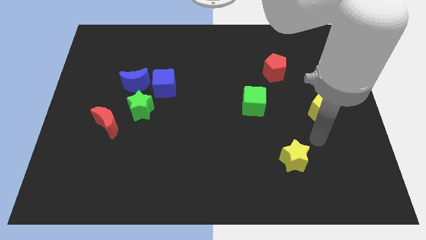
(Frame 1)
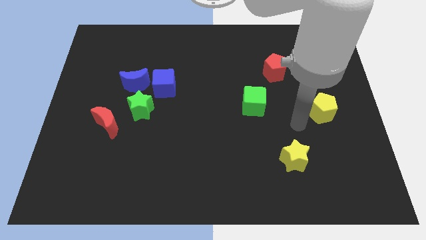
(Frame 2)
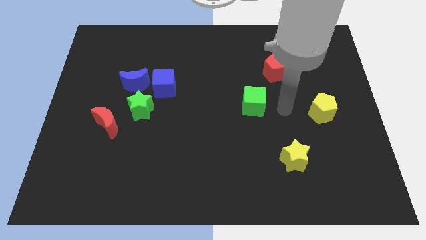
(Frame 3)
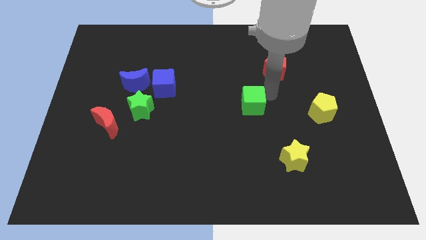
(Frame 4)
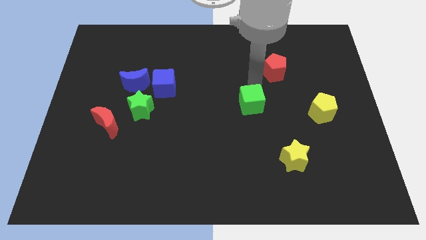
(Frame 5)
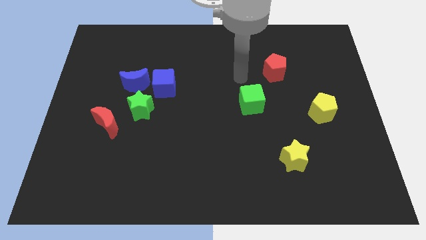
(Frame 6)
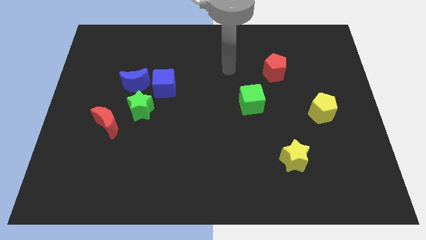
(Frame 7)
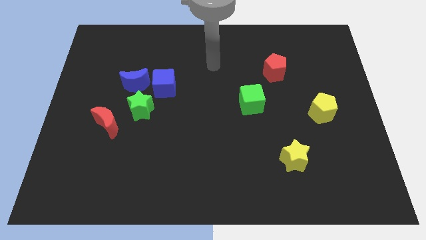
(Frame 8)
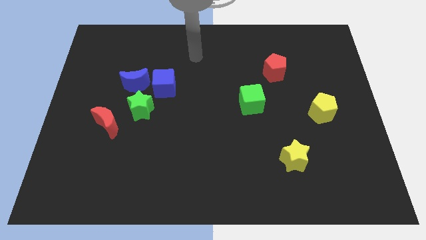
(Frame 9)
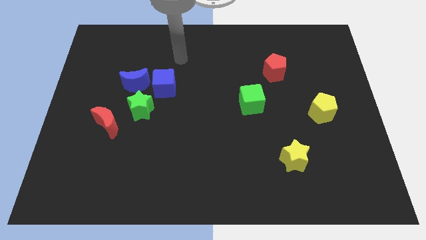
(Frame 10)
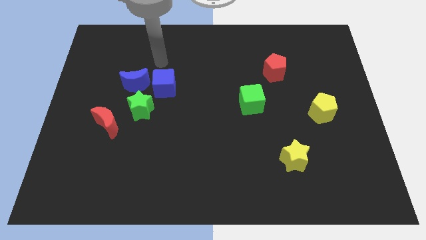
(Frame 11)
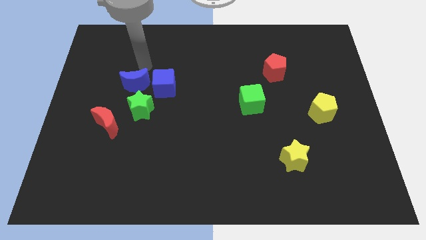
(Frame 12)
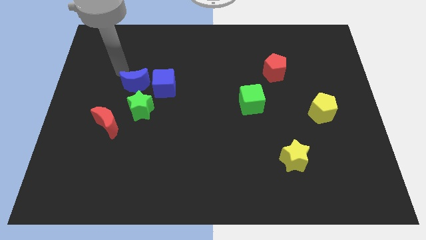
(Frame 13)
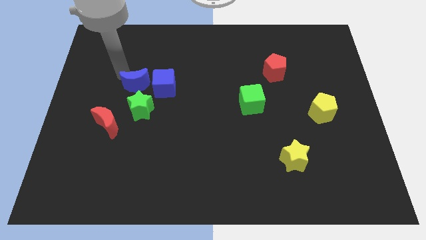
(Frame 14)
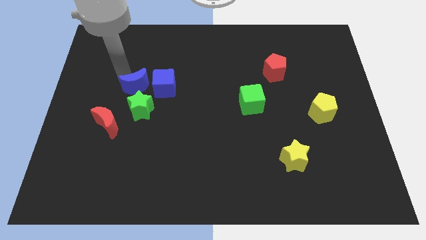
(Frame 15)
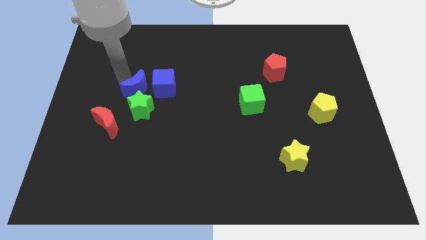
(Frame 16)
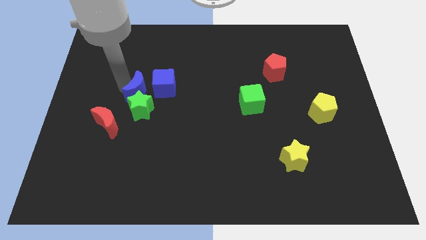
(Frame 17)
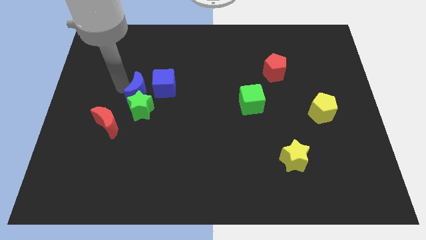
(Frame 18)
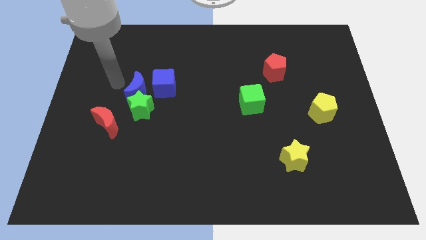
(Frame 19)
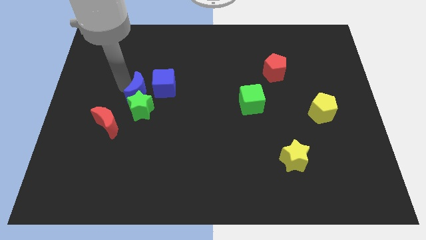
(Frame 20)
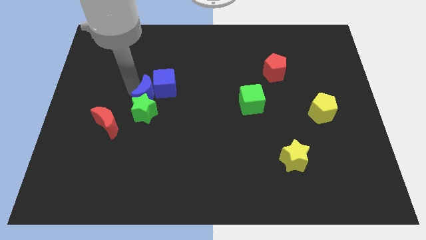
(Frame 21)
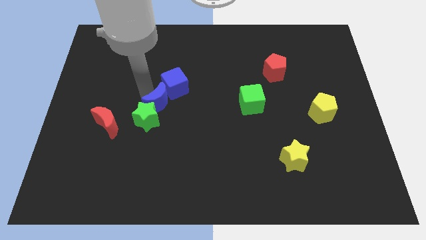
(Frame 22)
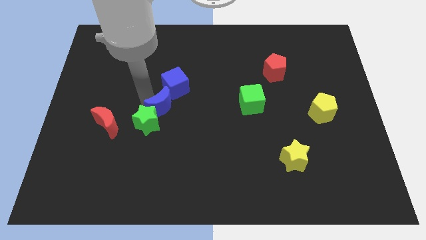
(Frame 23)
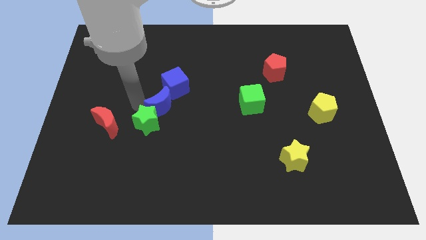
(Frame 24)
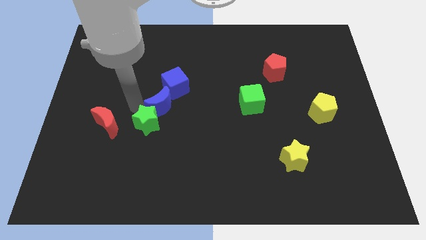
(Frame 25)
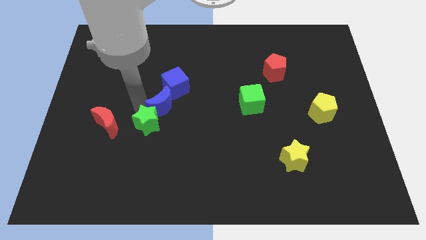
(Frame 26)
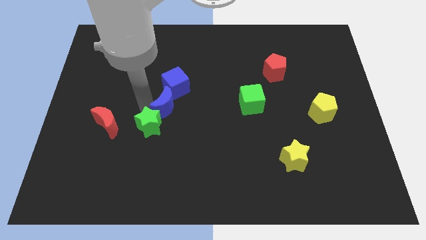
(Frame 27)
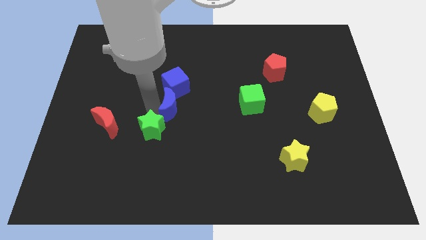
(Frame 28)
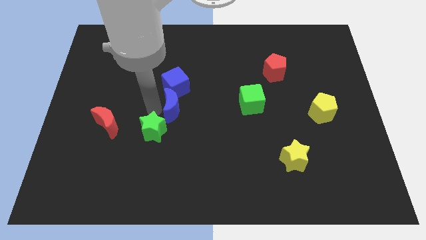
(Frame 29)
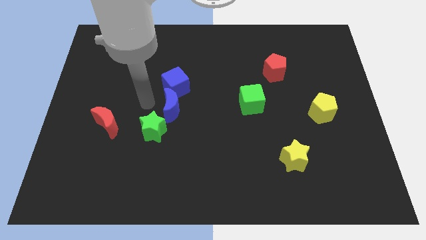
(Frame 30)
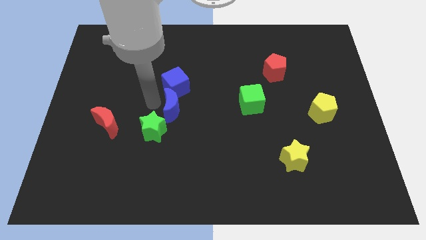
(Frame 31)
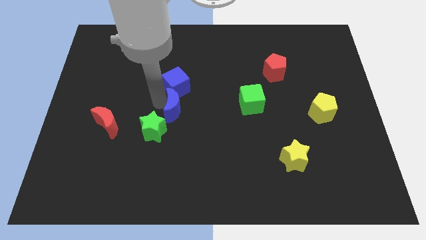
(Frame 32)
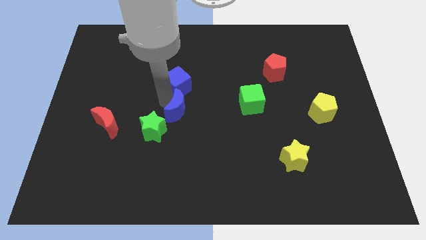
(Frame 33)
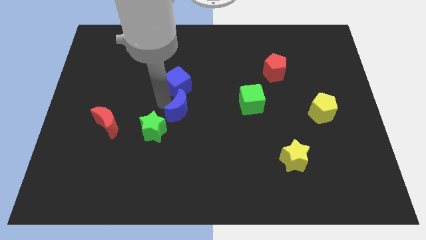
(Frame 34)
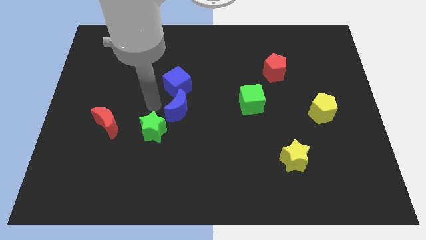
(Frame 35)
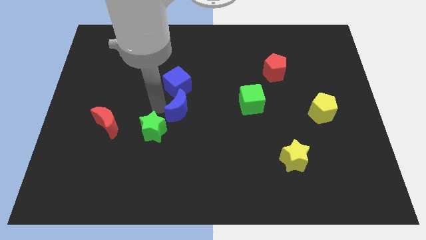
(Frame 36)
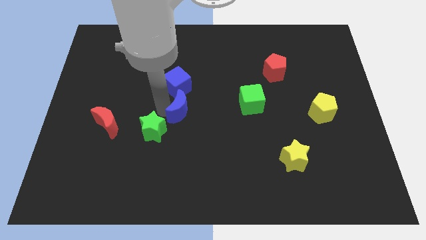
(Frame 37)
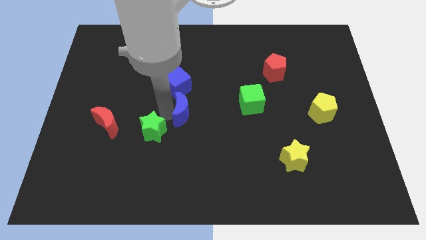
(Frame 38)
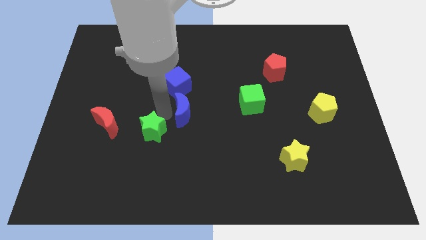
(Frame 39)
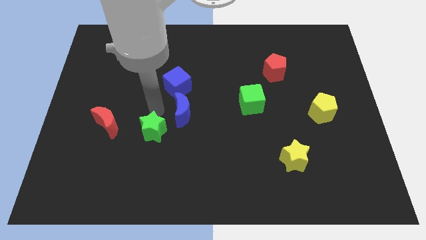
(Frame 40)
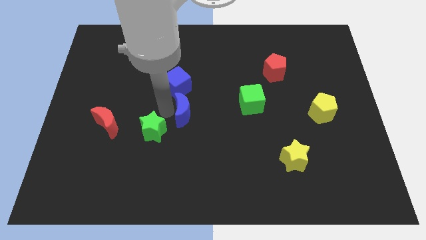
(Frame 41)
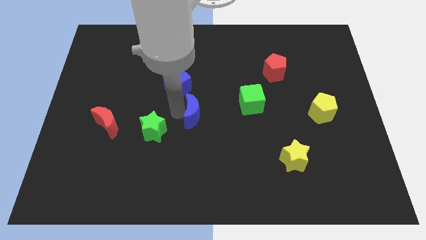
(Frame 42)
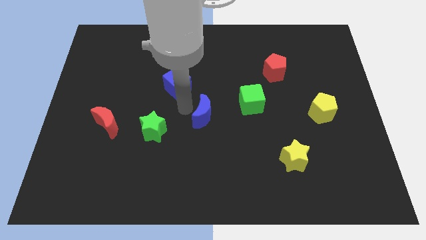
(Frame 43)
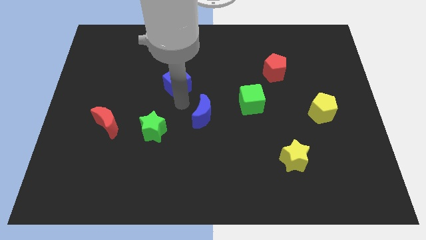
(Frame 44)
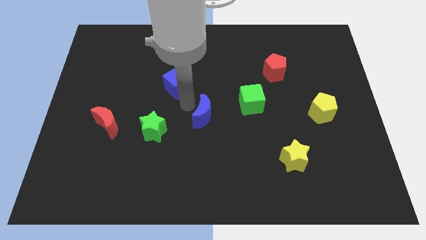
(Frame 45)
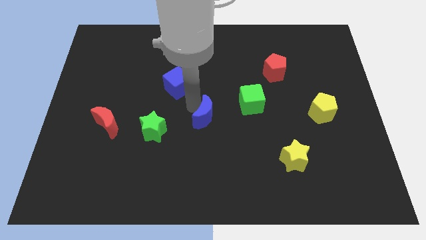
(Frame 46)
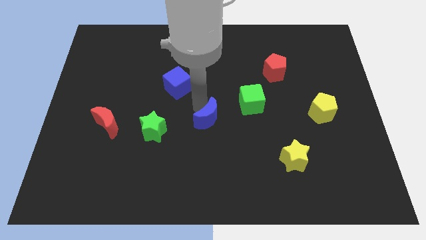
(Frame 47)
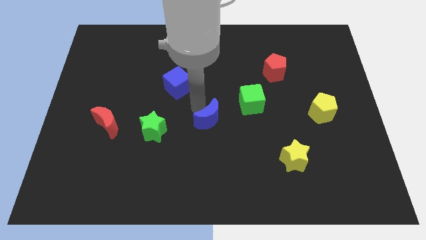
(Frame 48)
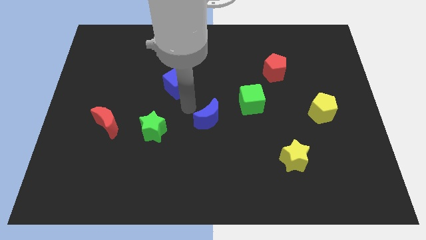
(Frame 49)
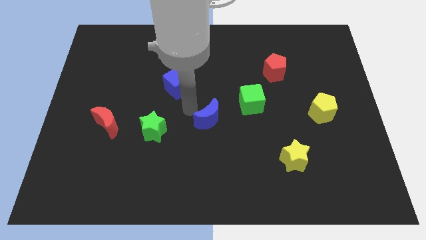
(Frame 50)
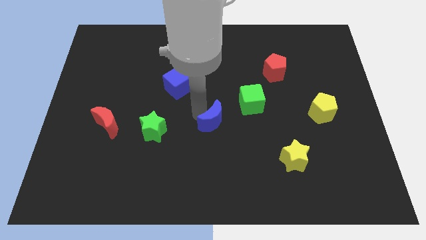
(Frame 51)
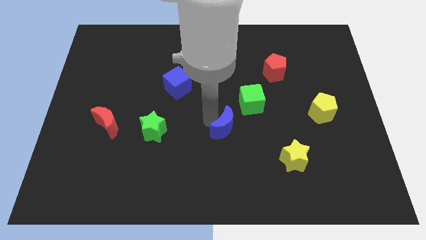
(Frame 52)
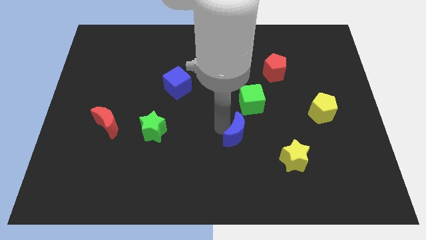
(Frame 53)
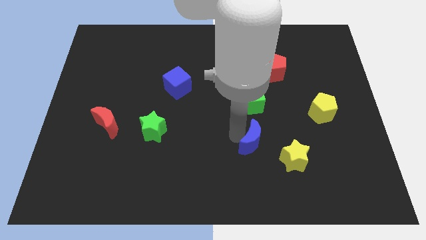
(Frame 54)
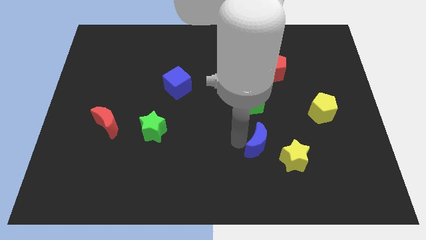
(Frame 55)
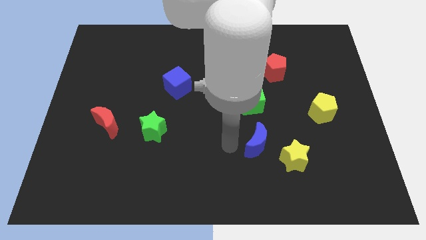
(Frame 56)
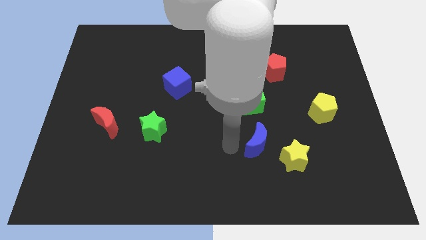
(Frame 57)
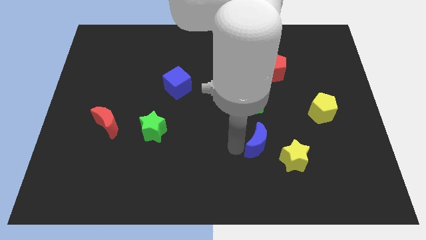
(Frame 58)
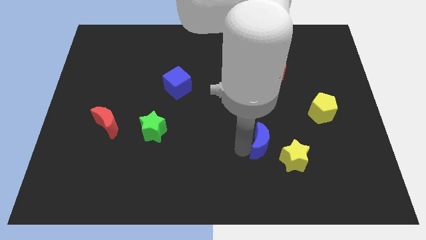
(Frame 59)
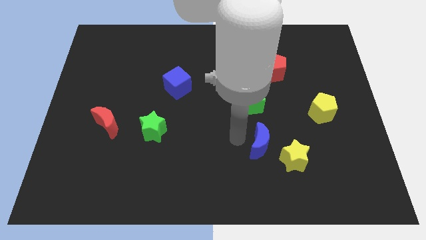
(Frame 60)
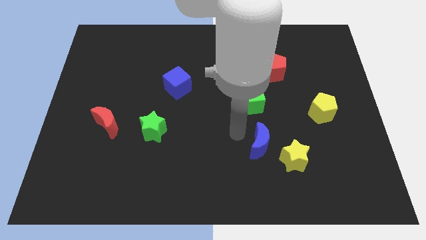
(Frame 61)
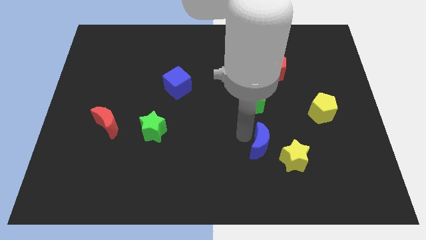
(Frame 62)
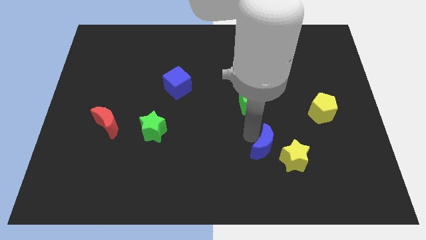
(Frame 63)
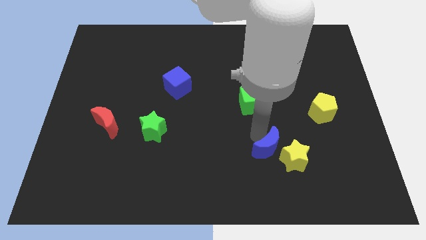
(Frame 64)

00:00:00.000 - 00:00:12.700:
move the blue moon close to the yellow star

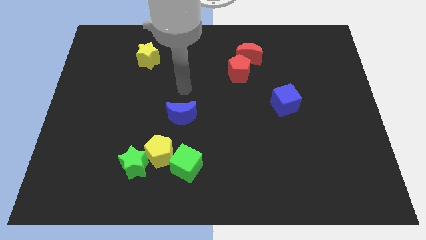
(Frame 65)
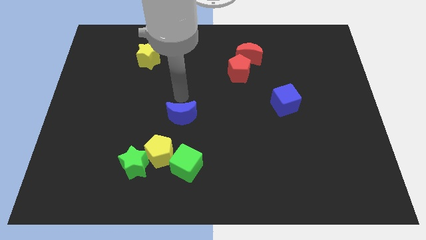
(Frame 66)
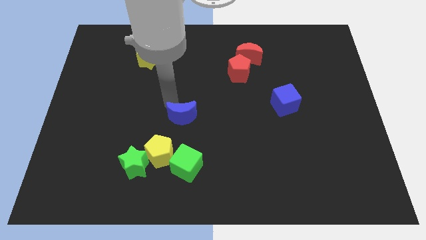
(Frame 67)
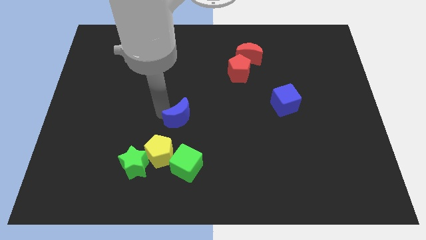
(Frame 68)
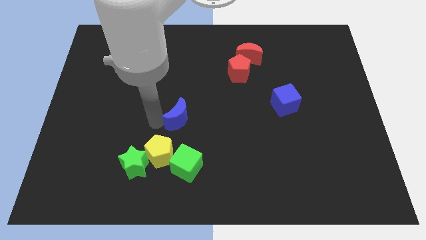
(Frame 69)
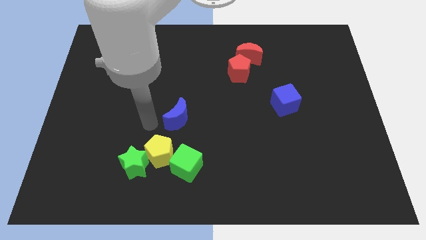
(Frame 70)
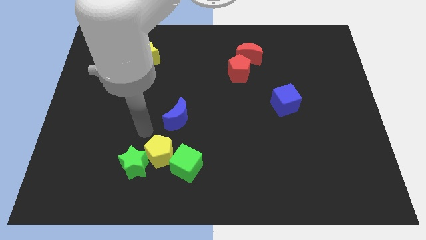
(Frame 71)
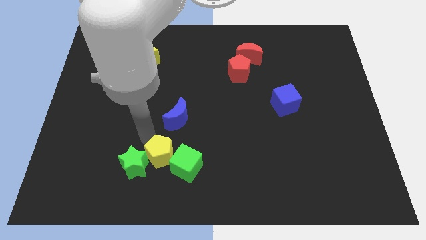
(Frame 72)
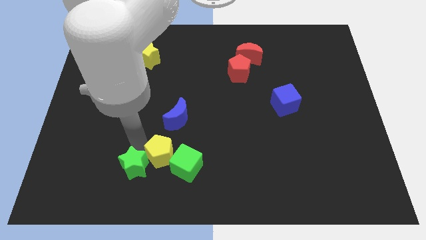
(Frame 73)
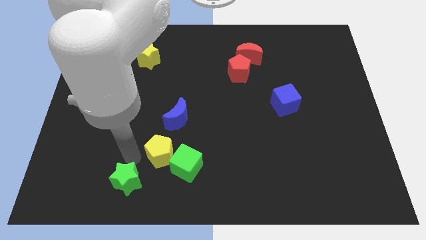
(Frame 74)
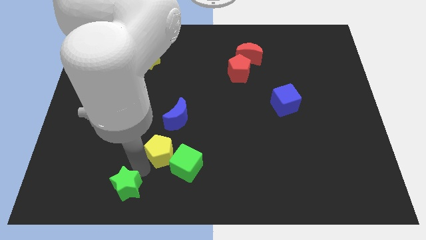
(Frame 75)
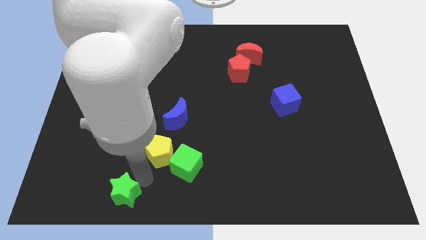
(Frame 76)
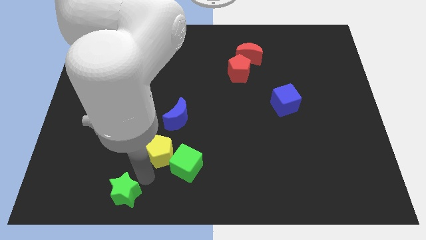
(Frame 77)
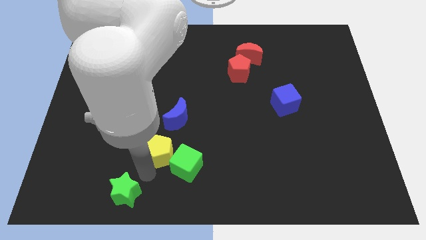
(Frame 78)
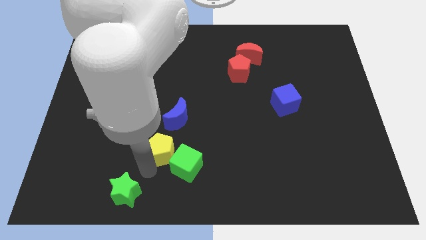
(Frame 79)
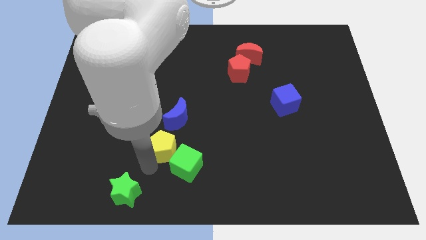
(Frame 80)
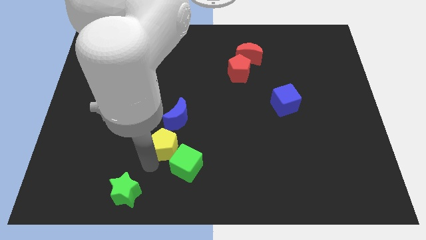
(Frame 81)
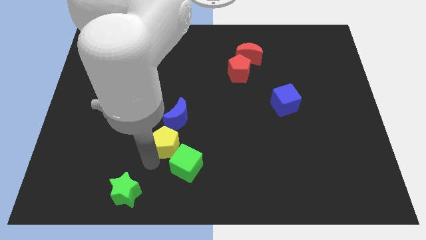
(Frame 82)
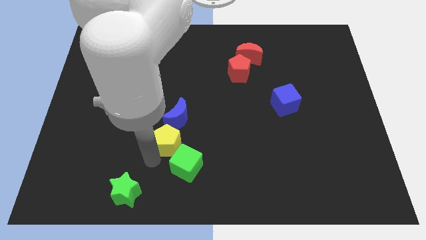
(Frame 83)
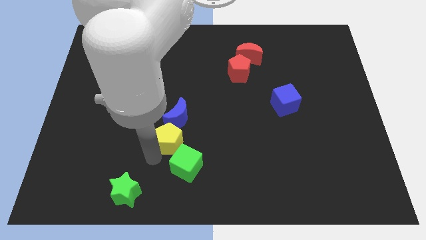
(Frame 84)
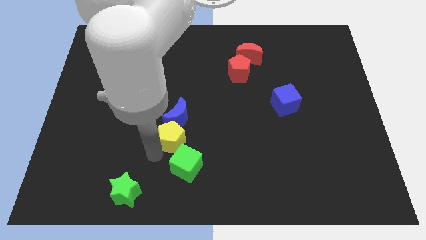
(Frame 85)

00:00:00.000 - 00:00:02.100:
put the yellow pentagon to the blue moon
